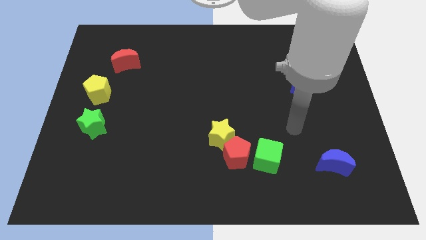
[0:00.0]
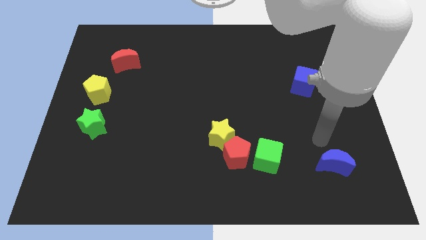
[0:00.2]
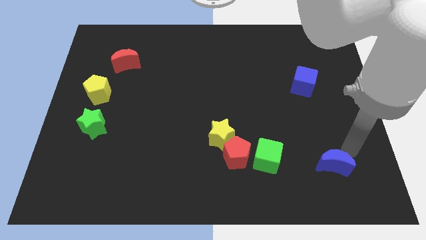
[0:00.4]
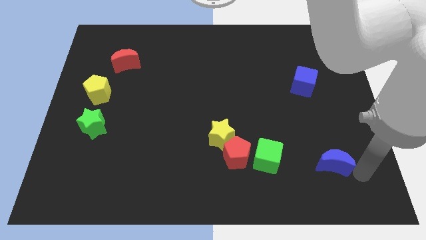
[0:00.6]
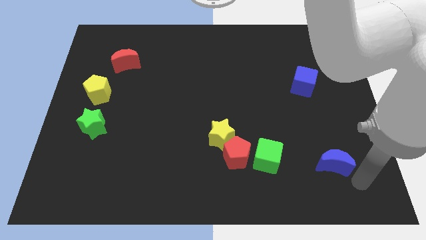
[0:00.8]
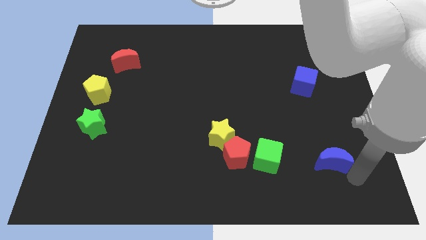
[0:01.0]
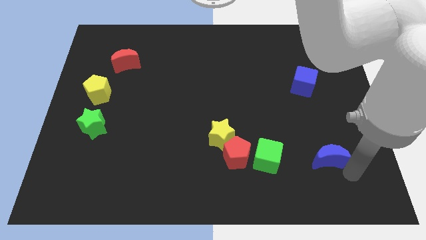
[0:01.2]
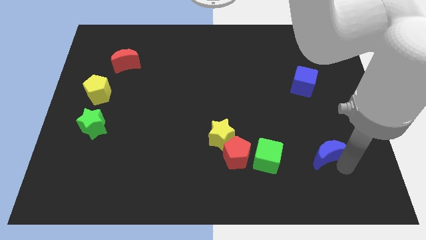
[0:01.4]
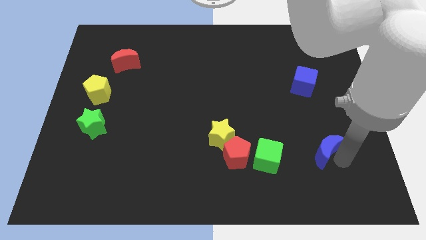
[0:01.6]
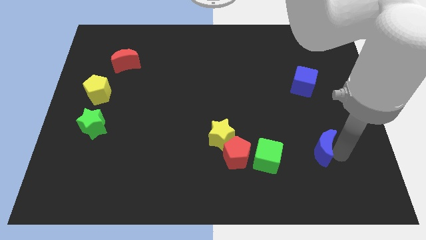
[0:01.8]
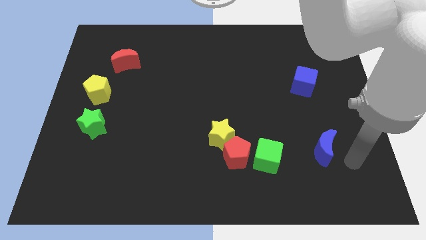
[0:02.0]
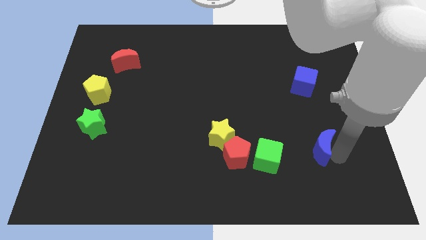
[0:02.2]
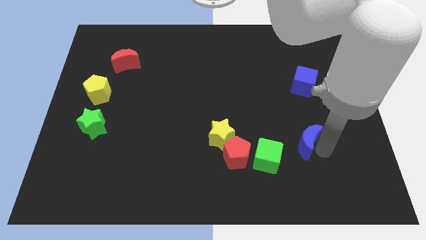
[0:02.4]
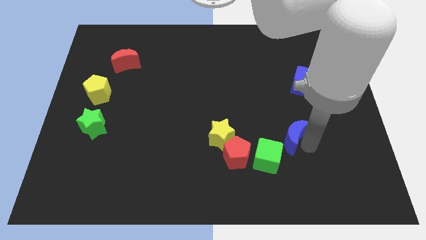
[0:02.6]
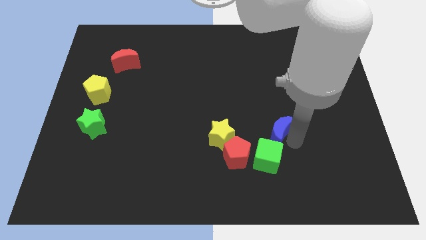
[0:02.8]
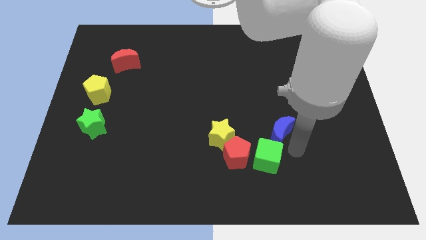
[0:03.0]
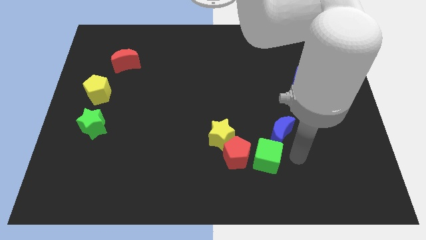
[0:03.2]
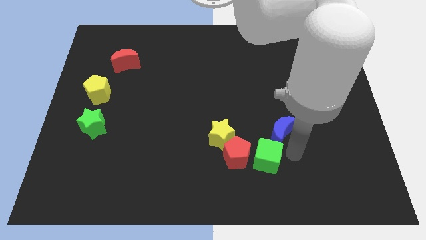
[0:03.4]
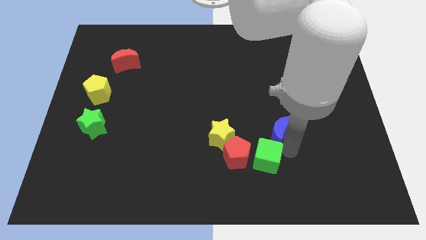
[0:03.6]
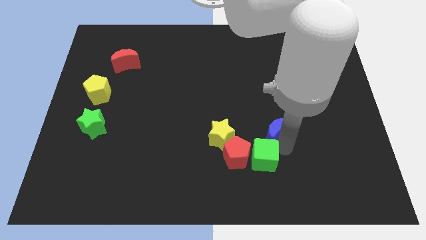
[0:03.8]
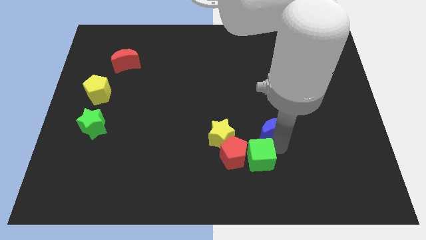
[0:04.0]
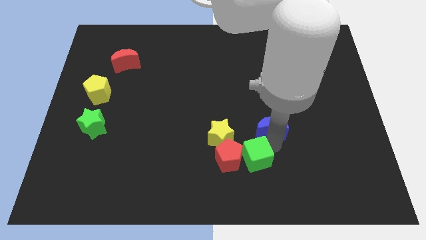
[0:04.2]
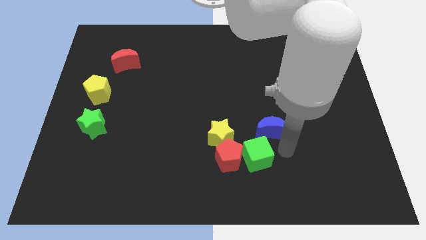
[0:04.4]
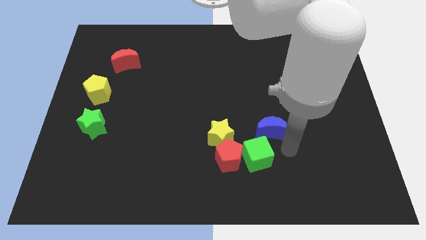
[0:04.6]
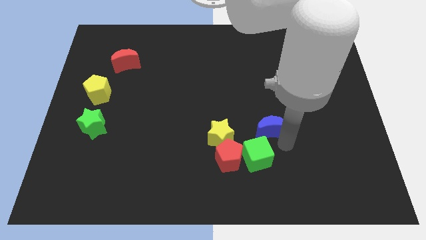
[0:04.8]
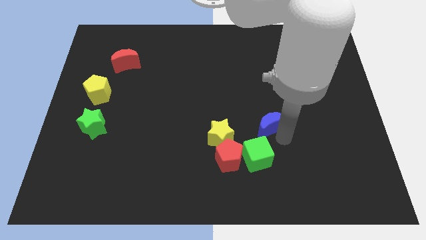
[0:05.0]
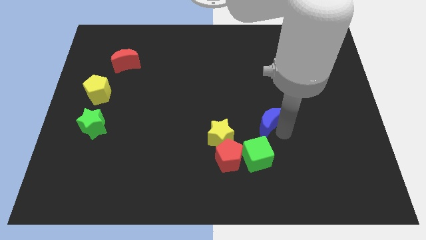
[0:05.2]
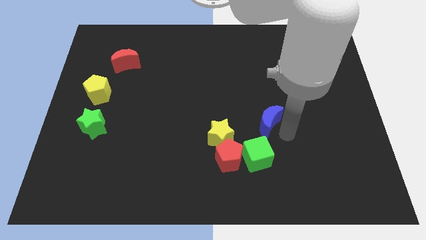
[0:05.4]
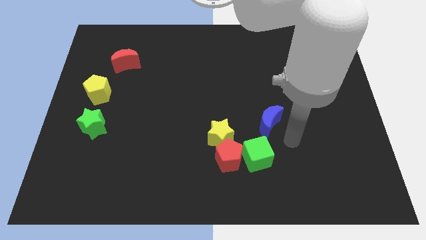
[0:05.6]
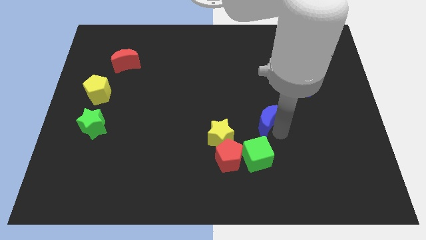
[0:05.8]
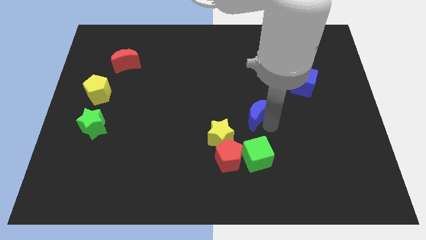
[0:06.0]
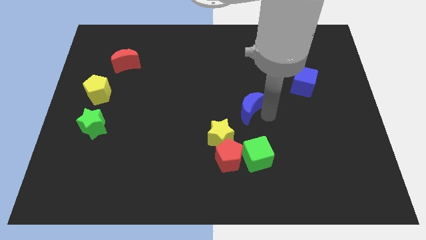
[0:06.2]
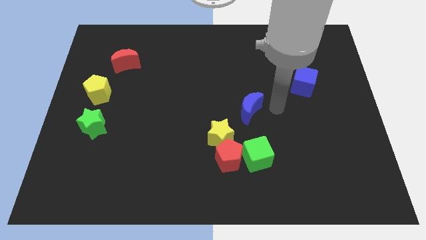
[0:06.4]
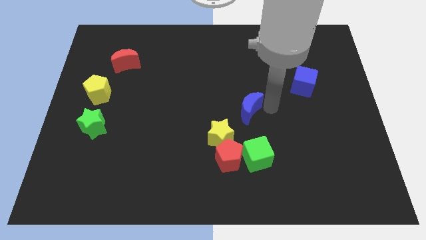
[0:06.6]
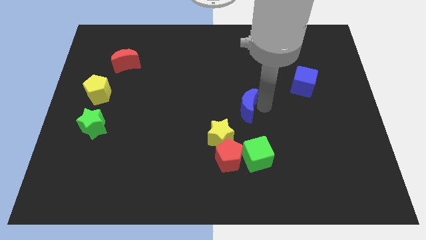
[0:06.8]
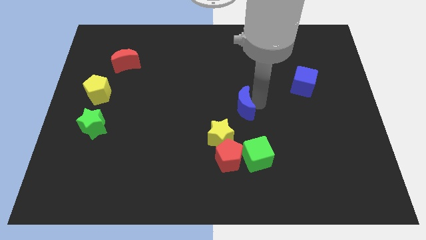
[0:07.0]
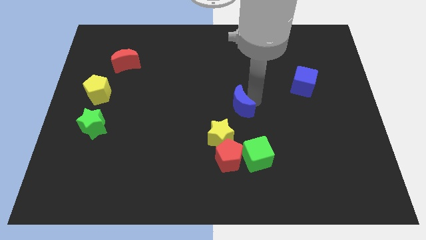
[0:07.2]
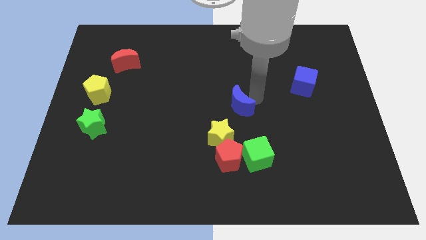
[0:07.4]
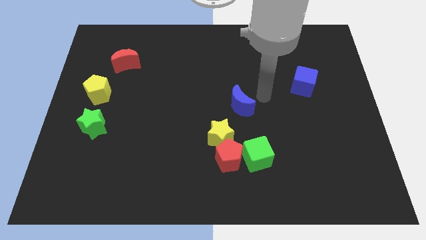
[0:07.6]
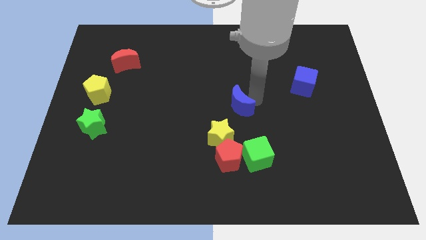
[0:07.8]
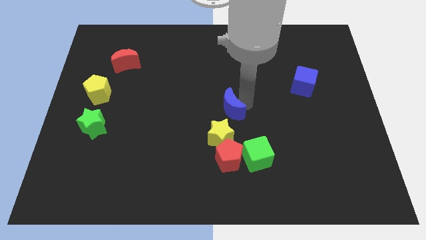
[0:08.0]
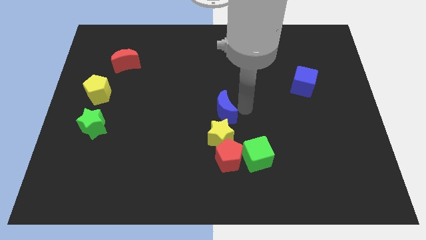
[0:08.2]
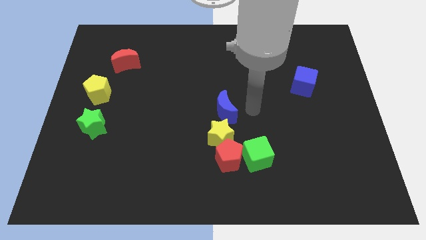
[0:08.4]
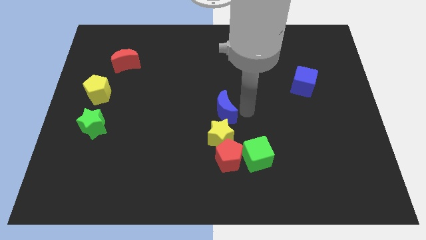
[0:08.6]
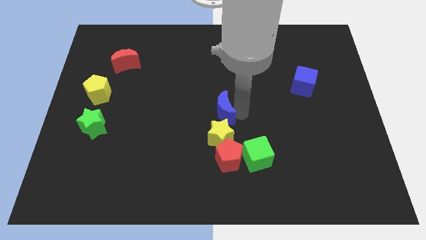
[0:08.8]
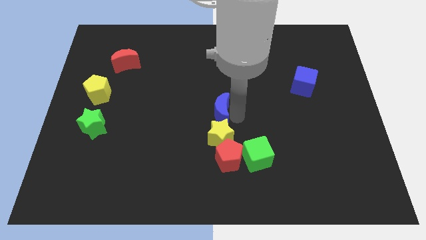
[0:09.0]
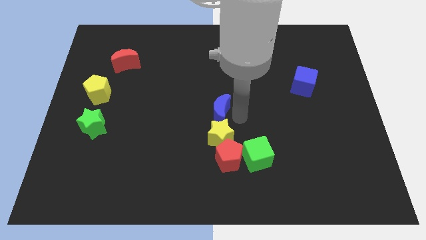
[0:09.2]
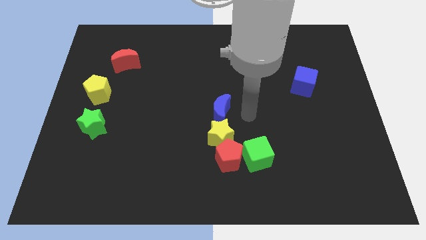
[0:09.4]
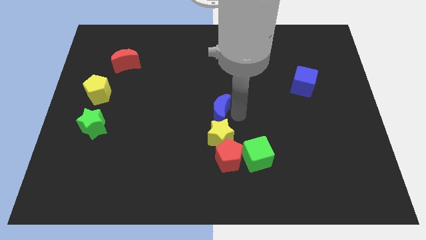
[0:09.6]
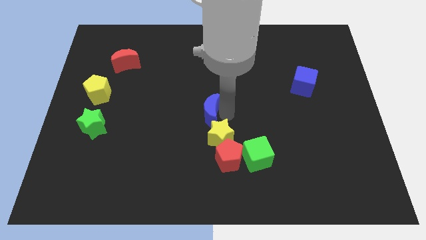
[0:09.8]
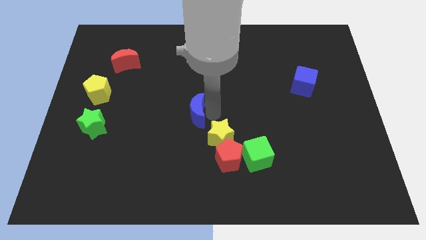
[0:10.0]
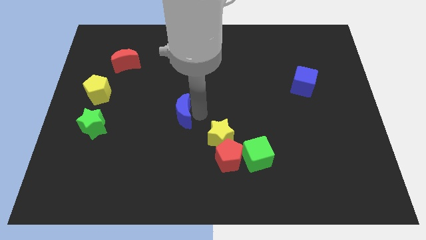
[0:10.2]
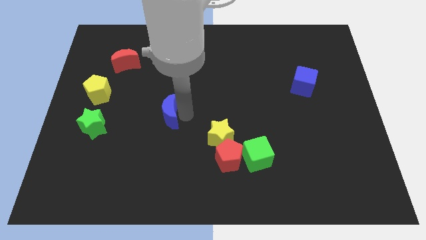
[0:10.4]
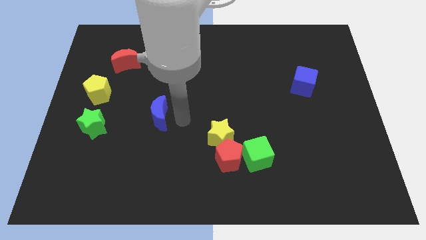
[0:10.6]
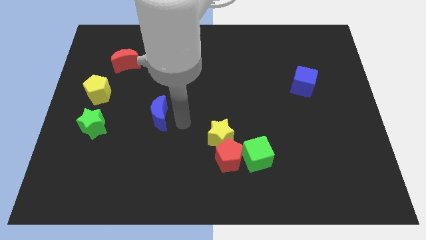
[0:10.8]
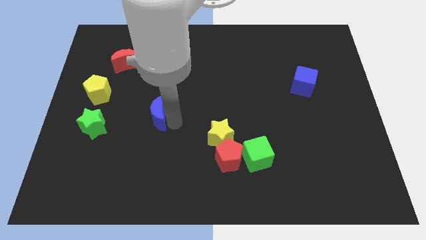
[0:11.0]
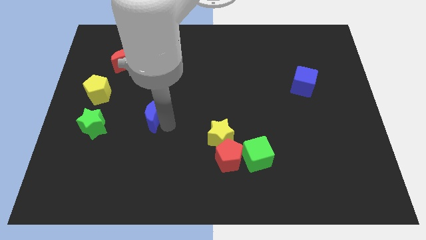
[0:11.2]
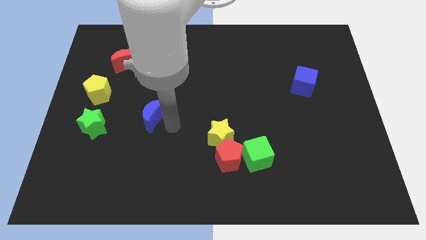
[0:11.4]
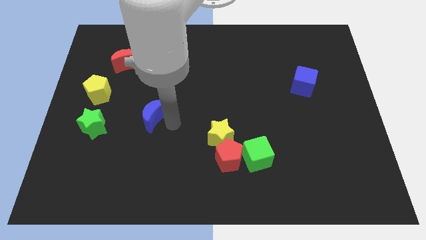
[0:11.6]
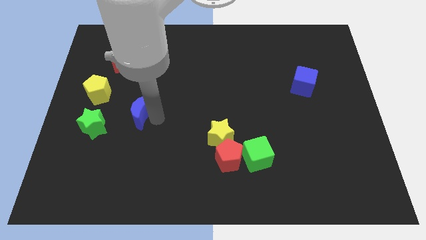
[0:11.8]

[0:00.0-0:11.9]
slide the blue moon to the top right side of the green star

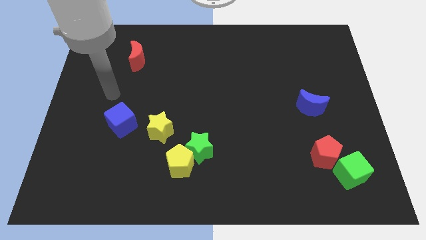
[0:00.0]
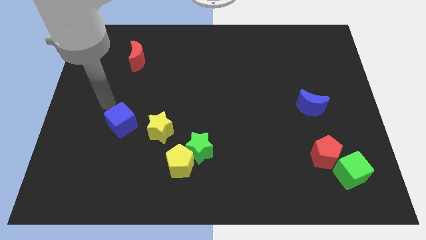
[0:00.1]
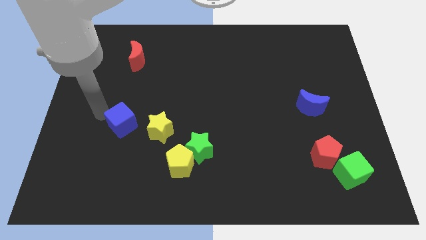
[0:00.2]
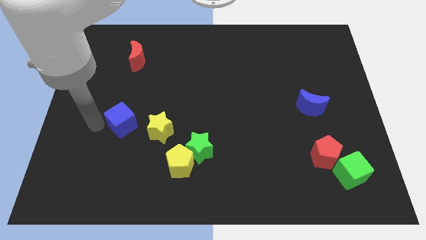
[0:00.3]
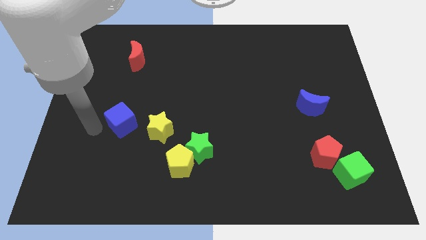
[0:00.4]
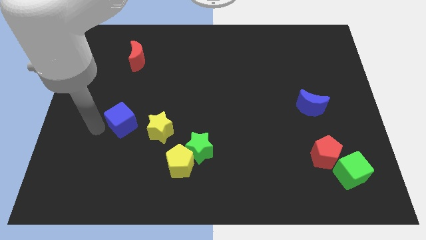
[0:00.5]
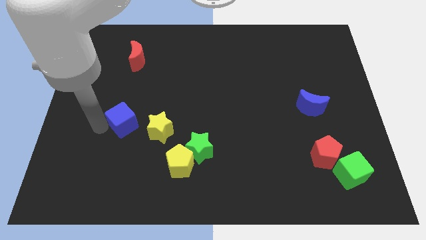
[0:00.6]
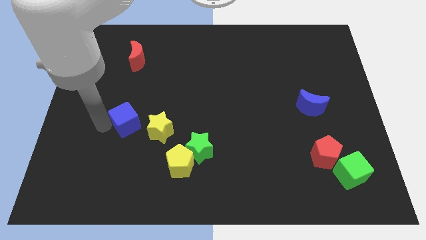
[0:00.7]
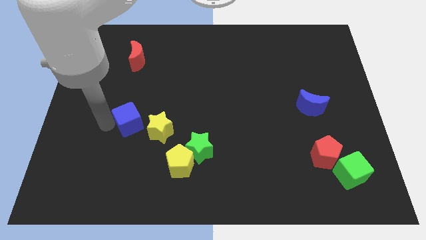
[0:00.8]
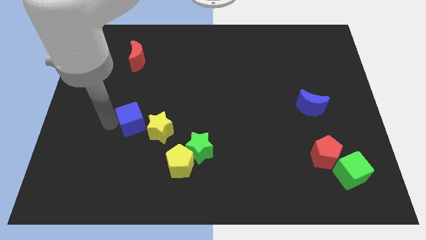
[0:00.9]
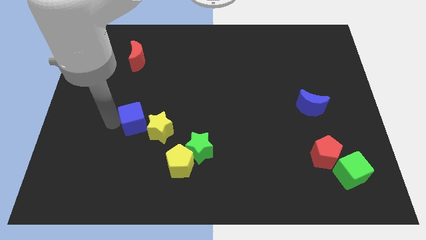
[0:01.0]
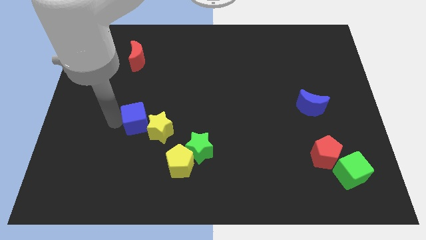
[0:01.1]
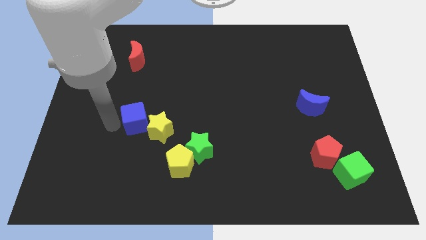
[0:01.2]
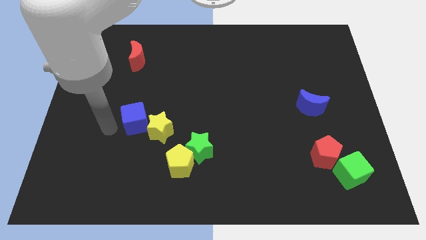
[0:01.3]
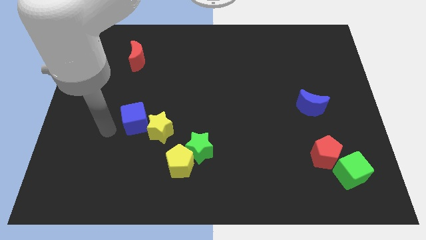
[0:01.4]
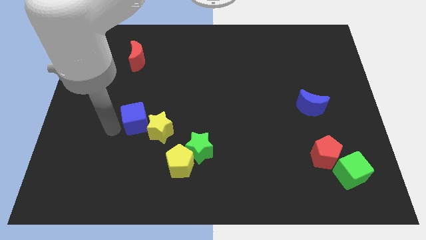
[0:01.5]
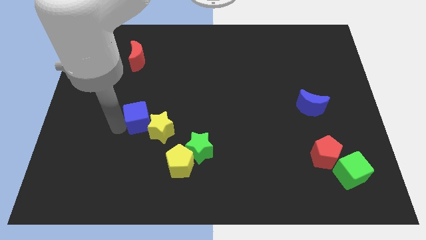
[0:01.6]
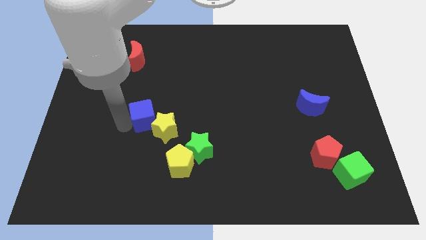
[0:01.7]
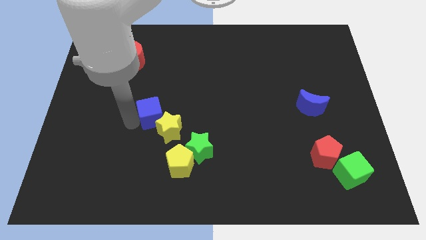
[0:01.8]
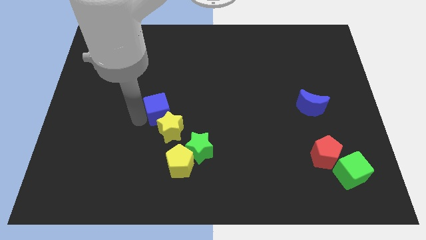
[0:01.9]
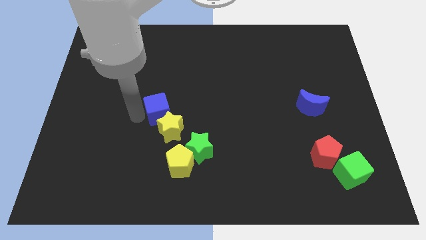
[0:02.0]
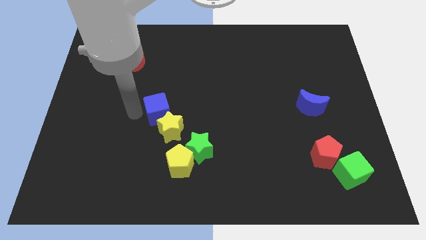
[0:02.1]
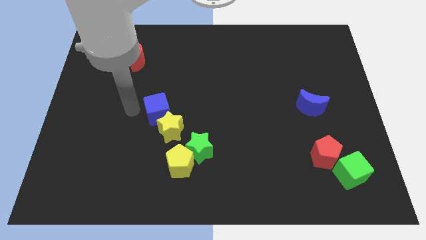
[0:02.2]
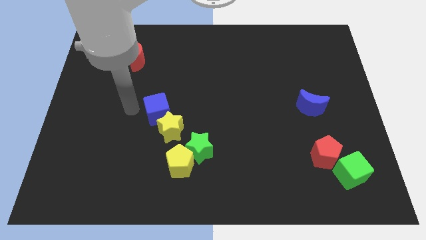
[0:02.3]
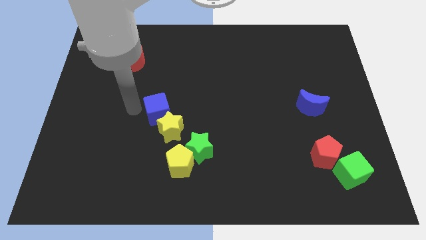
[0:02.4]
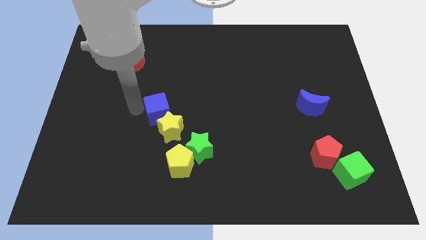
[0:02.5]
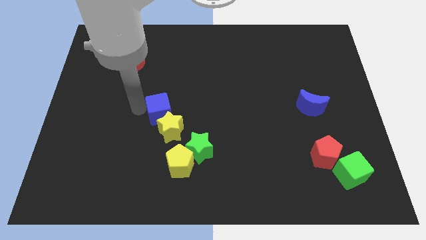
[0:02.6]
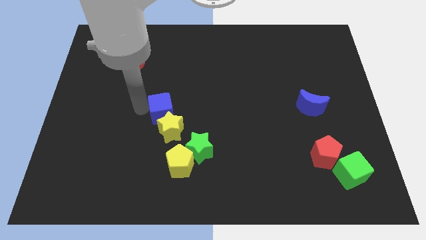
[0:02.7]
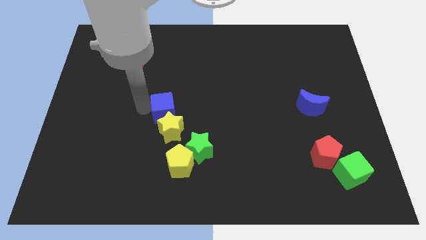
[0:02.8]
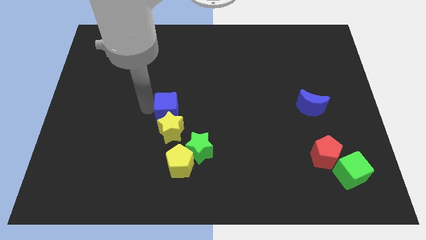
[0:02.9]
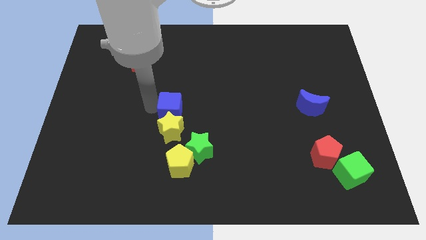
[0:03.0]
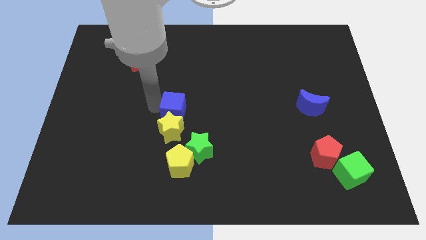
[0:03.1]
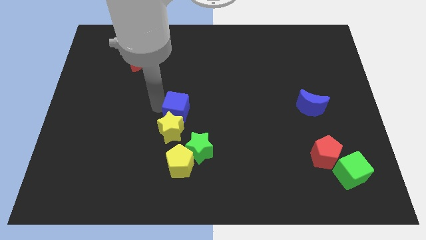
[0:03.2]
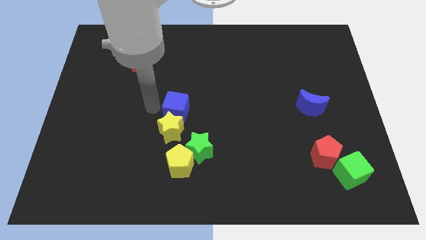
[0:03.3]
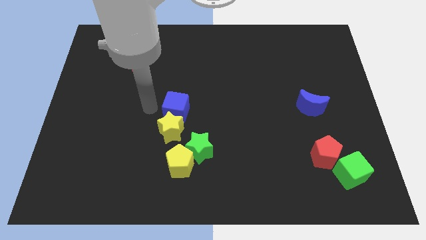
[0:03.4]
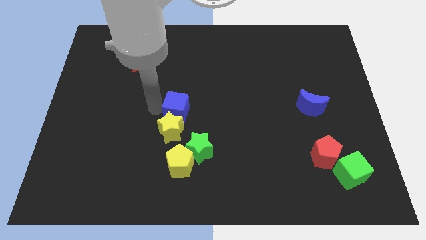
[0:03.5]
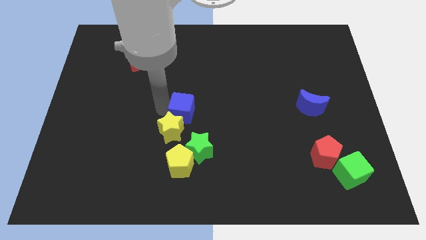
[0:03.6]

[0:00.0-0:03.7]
slide the blue cube above the green star
